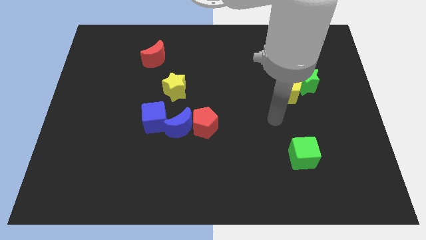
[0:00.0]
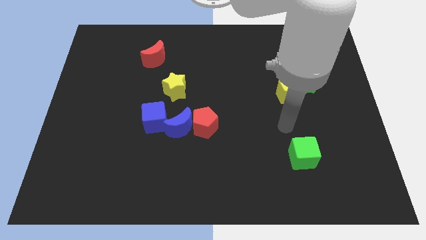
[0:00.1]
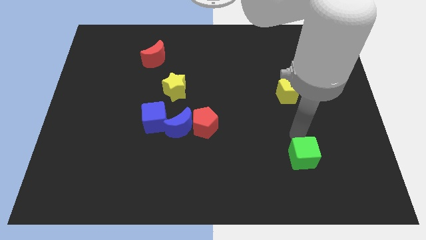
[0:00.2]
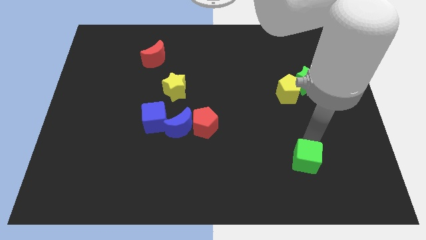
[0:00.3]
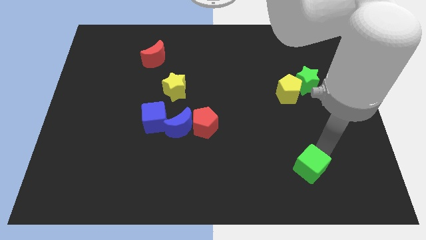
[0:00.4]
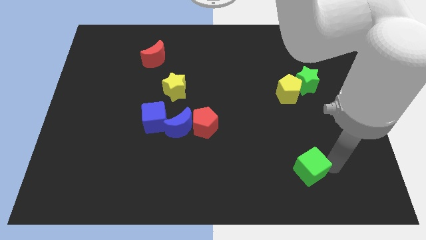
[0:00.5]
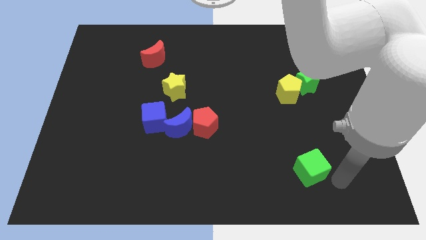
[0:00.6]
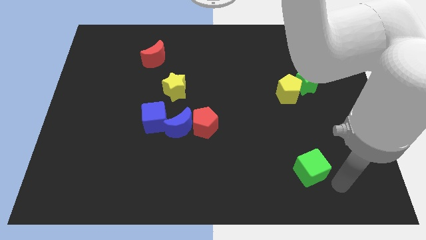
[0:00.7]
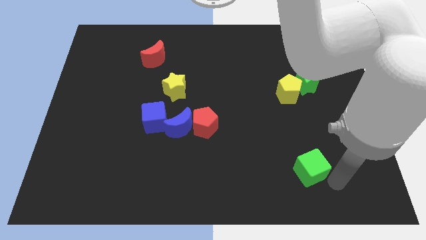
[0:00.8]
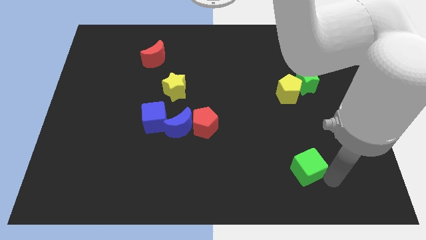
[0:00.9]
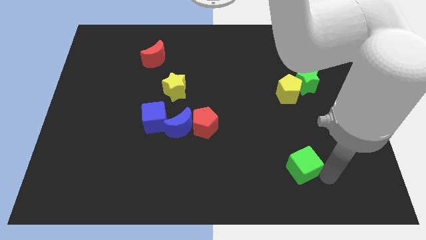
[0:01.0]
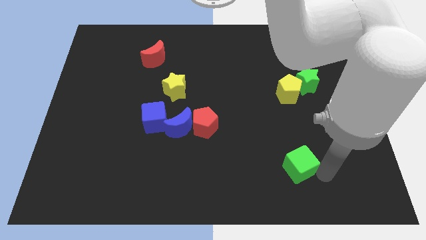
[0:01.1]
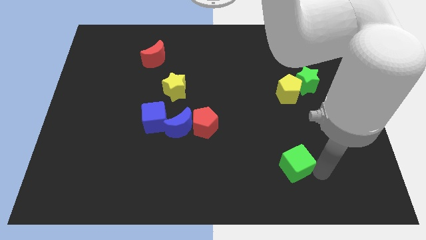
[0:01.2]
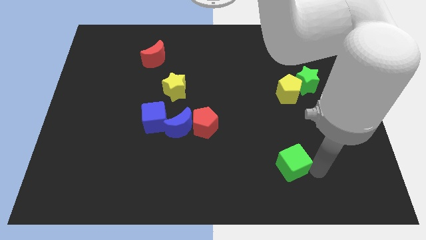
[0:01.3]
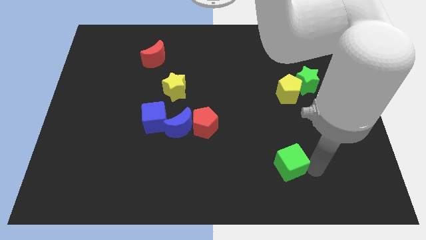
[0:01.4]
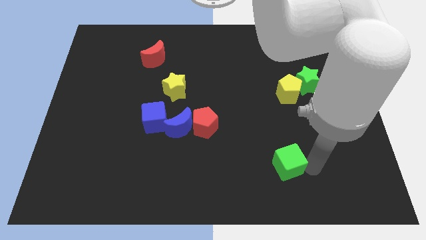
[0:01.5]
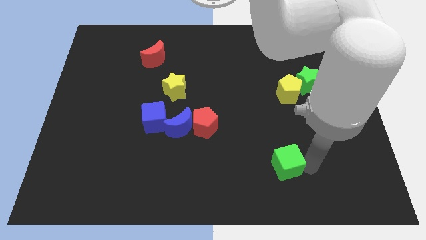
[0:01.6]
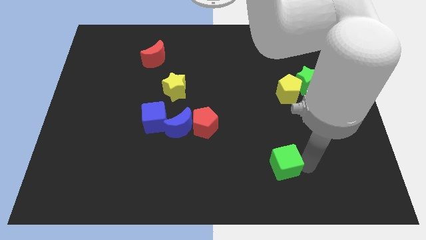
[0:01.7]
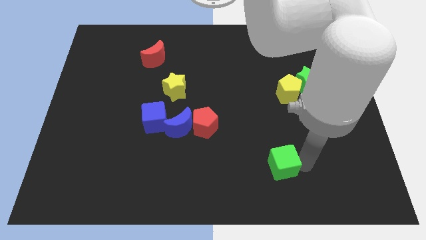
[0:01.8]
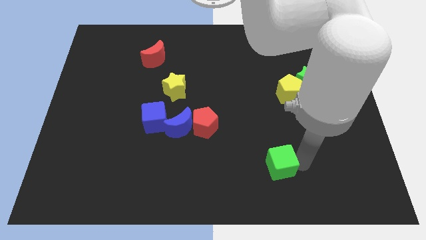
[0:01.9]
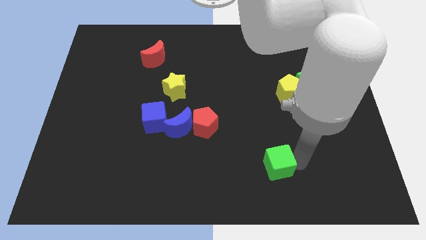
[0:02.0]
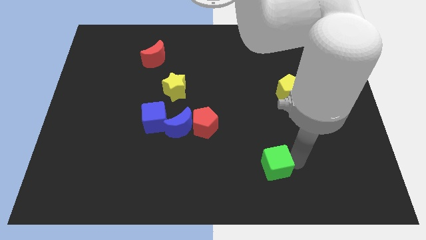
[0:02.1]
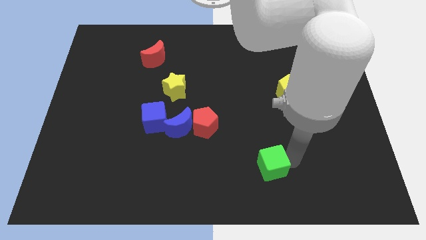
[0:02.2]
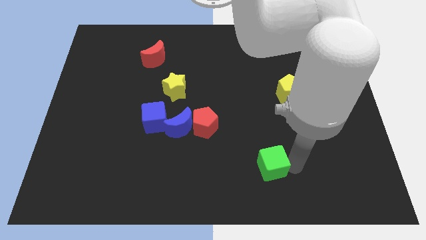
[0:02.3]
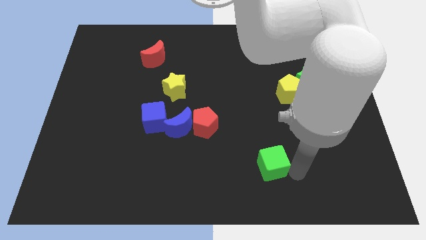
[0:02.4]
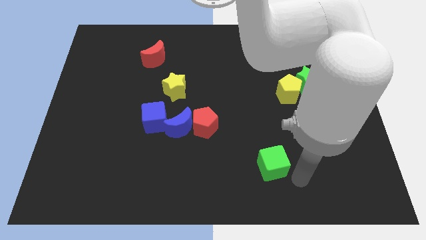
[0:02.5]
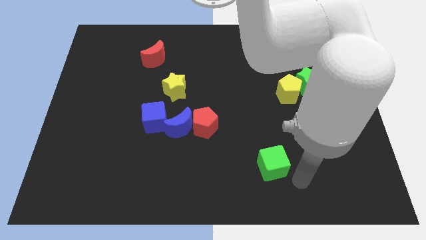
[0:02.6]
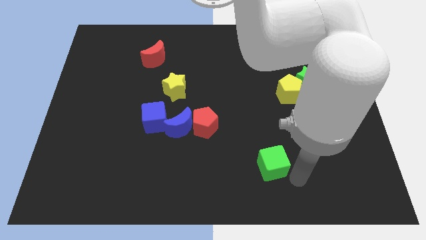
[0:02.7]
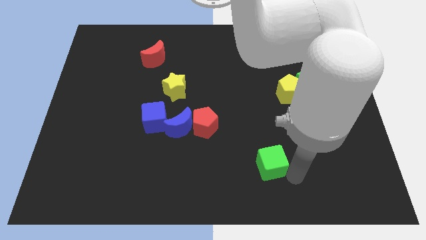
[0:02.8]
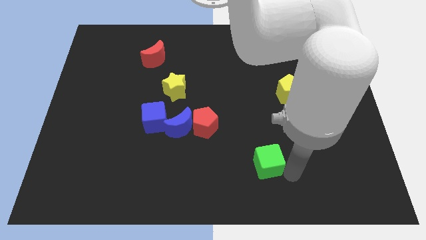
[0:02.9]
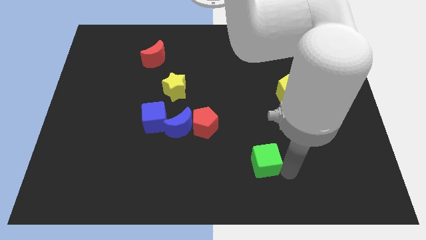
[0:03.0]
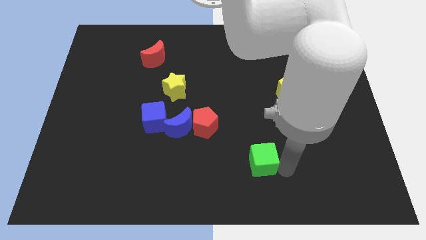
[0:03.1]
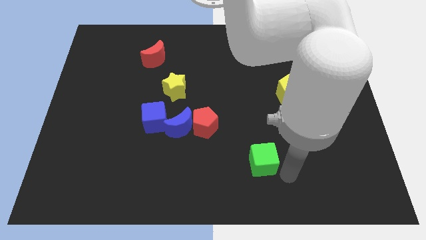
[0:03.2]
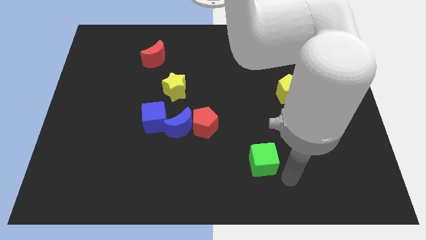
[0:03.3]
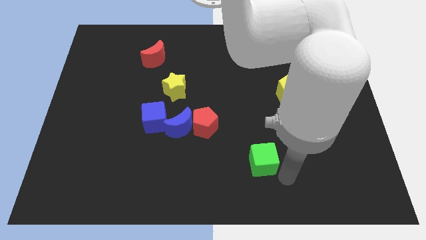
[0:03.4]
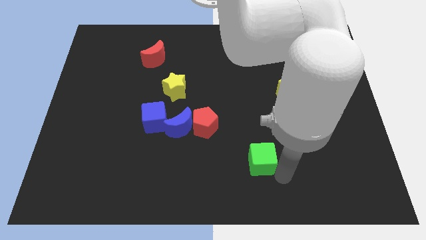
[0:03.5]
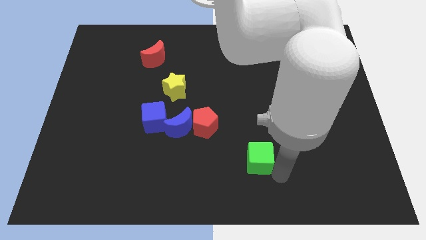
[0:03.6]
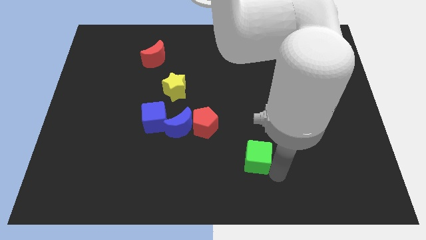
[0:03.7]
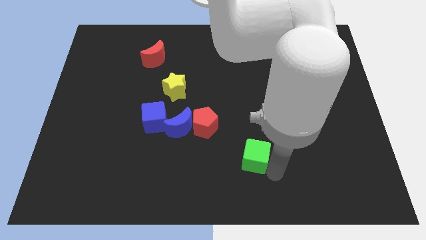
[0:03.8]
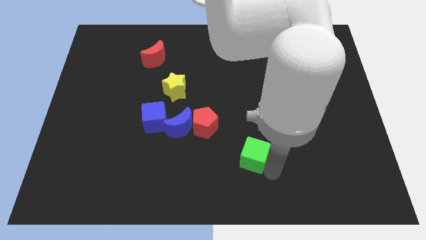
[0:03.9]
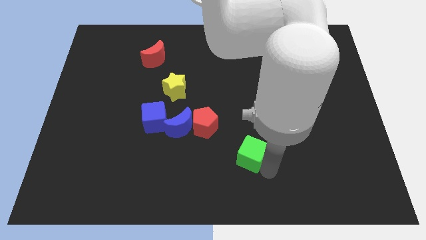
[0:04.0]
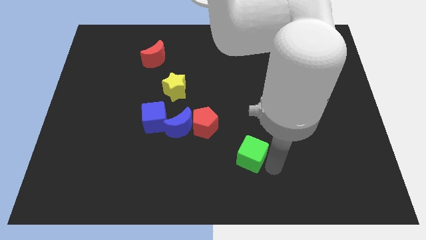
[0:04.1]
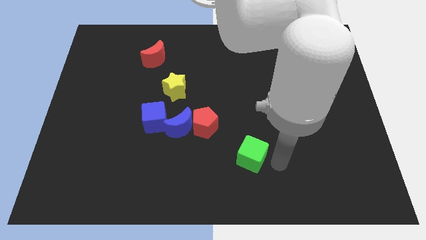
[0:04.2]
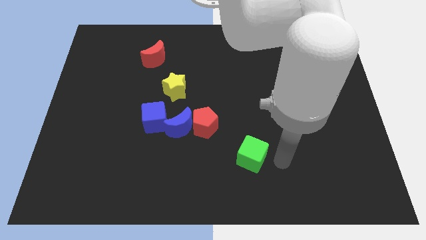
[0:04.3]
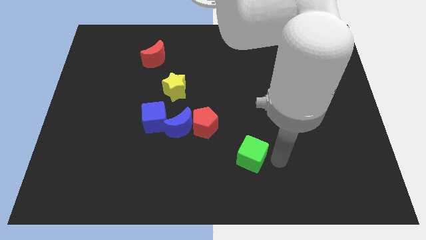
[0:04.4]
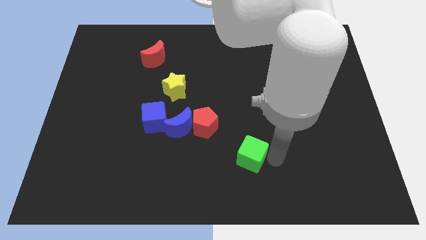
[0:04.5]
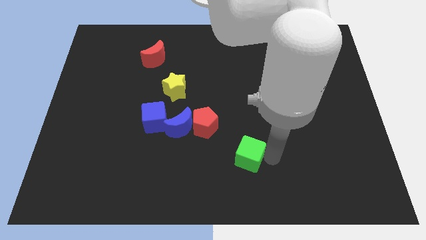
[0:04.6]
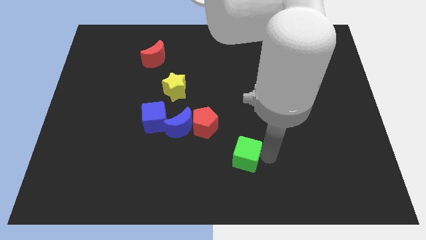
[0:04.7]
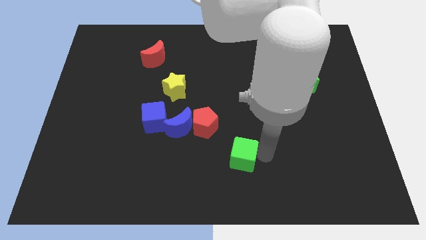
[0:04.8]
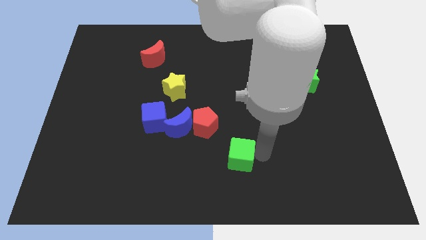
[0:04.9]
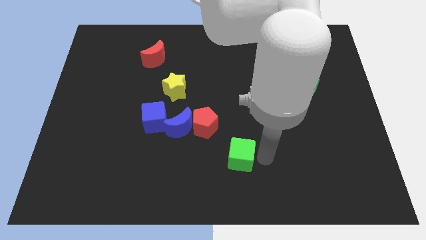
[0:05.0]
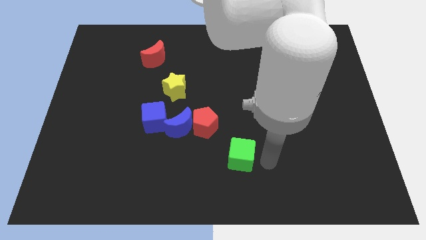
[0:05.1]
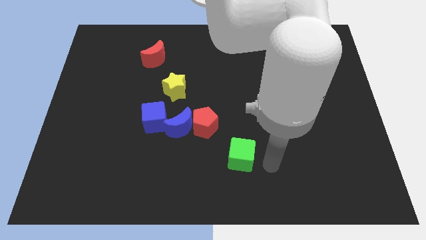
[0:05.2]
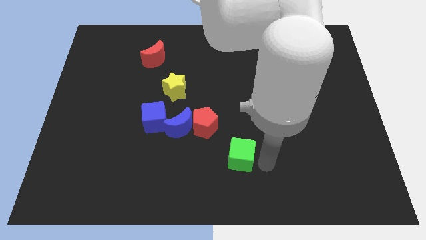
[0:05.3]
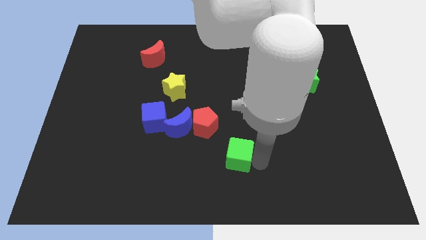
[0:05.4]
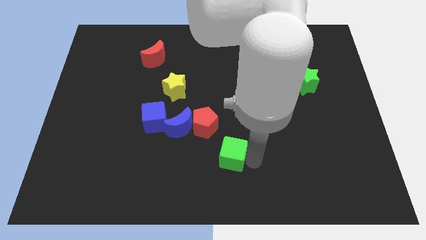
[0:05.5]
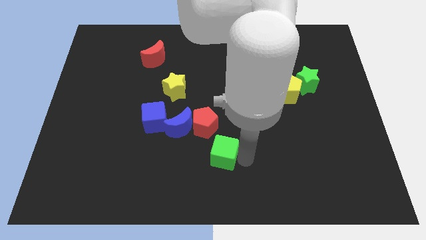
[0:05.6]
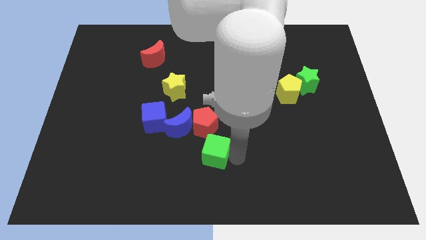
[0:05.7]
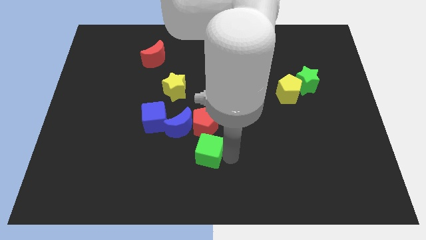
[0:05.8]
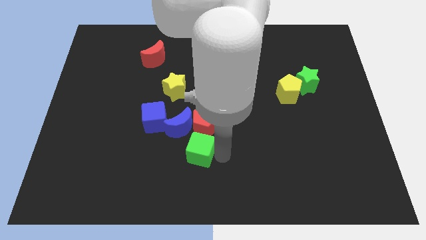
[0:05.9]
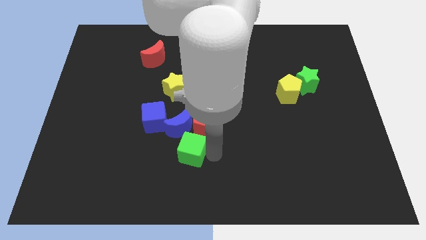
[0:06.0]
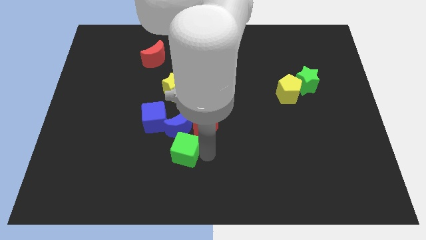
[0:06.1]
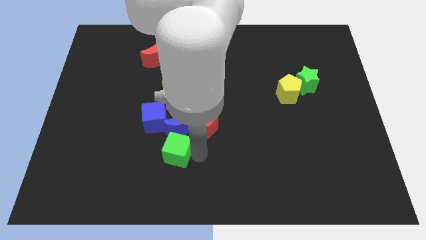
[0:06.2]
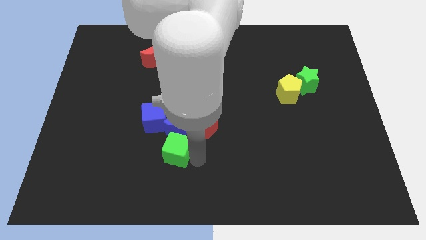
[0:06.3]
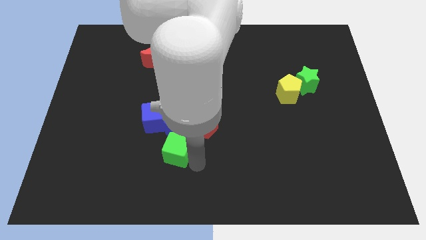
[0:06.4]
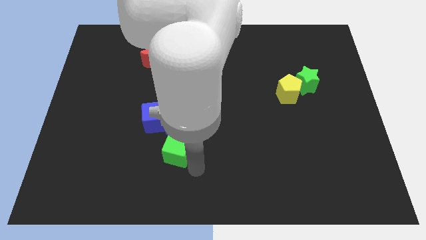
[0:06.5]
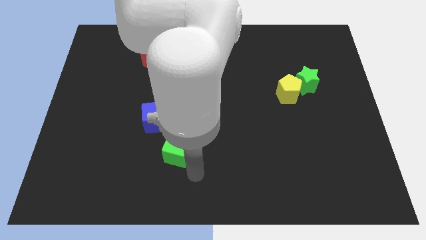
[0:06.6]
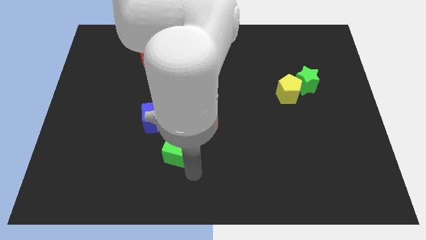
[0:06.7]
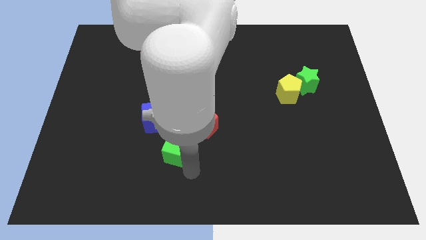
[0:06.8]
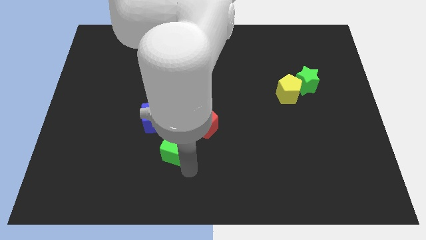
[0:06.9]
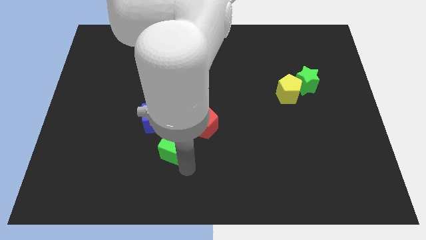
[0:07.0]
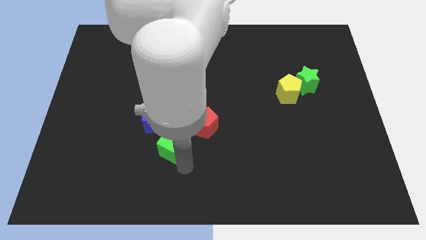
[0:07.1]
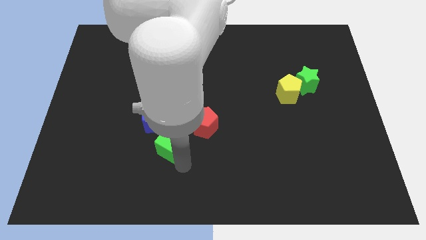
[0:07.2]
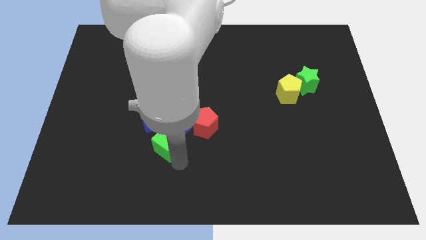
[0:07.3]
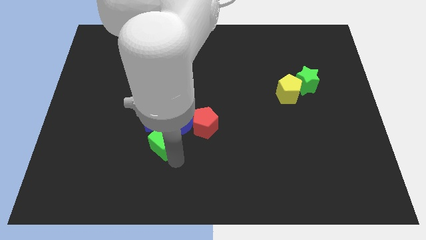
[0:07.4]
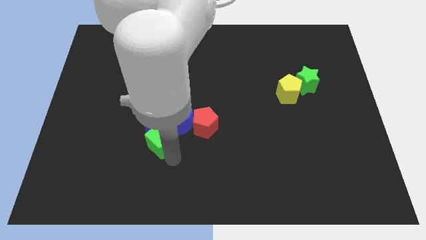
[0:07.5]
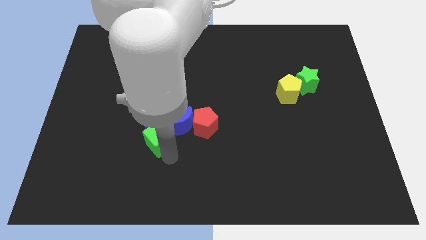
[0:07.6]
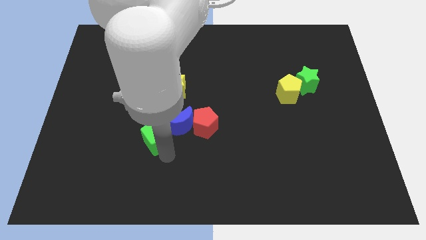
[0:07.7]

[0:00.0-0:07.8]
slide the green cube to the blue cube
